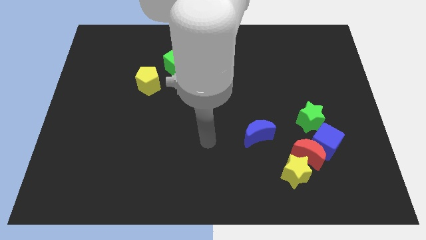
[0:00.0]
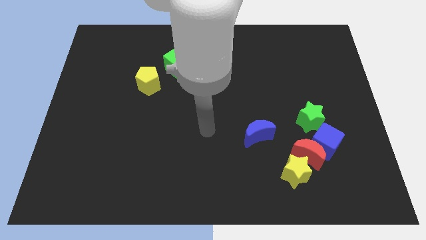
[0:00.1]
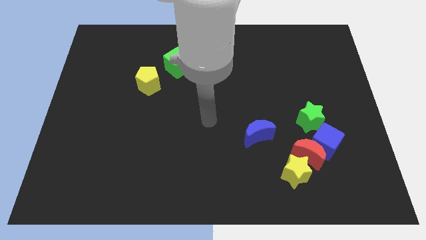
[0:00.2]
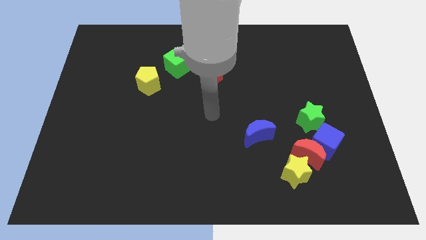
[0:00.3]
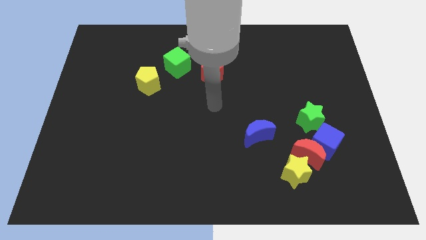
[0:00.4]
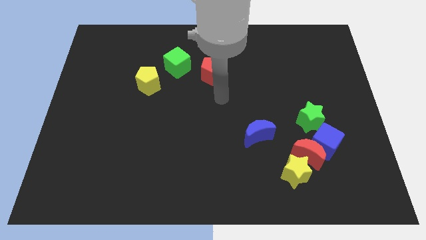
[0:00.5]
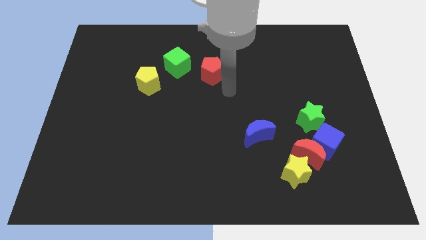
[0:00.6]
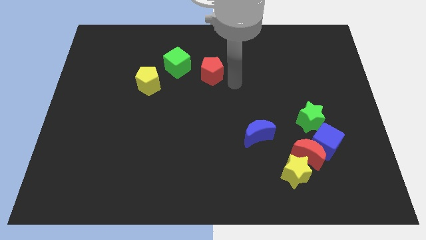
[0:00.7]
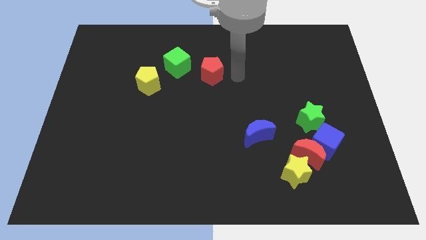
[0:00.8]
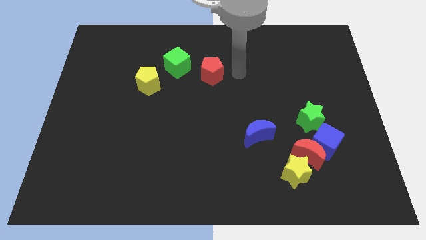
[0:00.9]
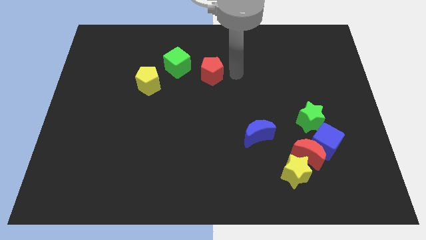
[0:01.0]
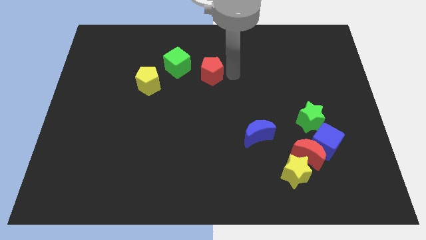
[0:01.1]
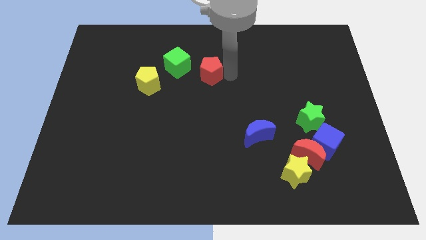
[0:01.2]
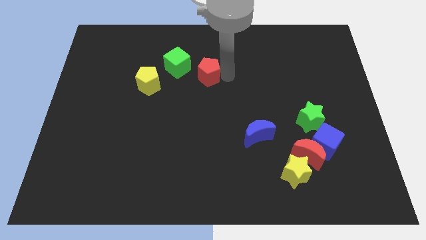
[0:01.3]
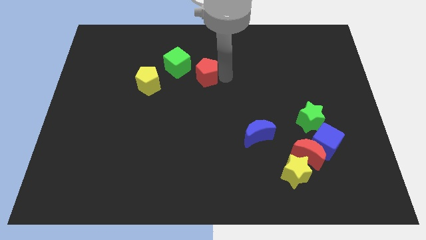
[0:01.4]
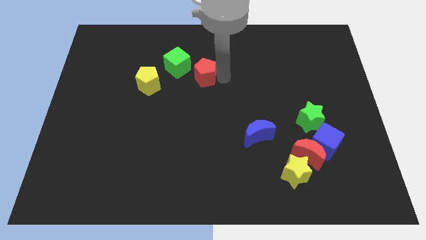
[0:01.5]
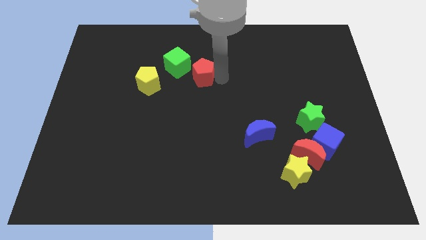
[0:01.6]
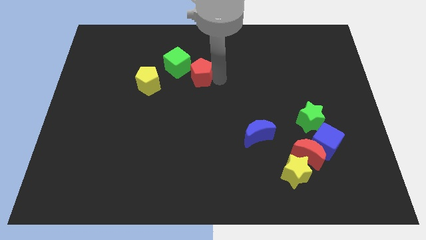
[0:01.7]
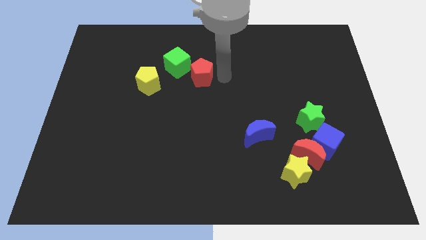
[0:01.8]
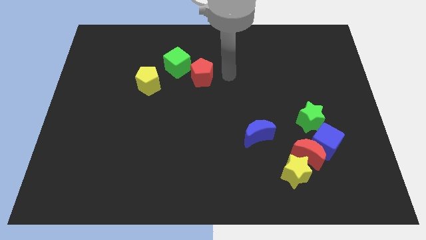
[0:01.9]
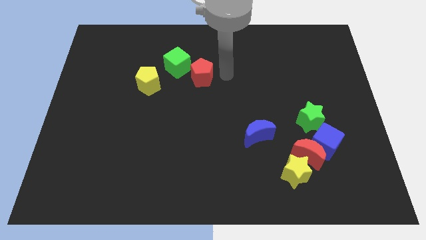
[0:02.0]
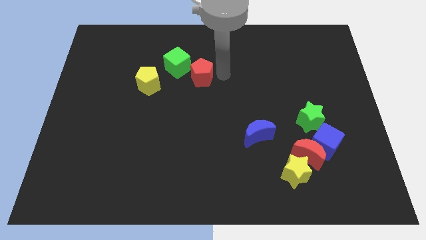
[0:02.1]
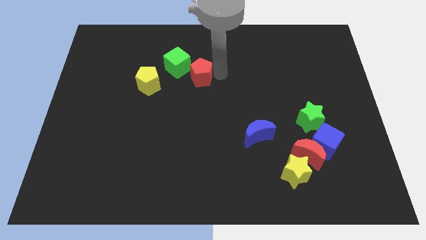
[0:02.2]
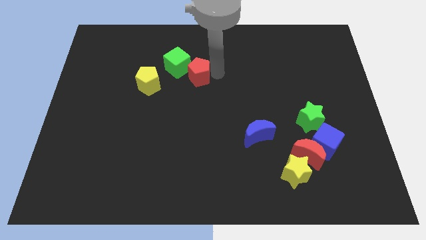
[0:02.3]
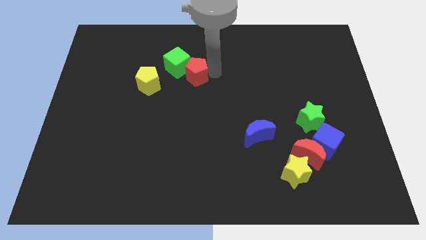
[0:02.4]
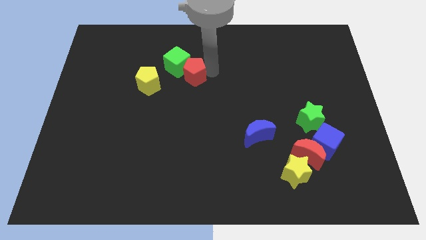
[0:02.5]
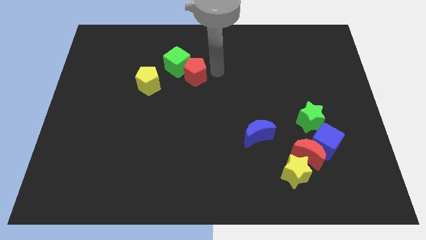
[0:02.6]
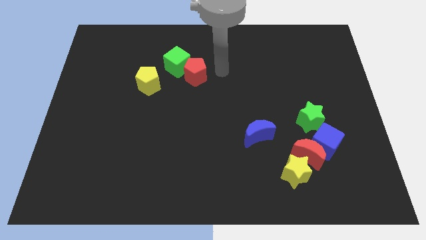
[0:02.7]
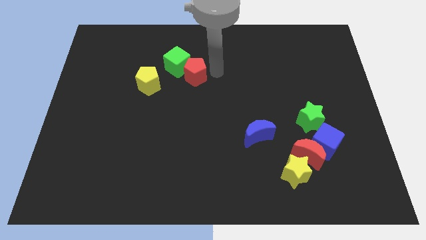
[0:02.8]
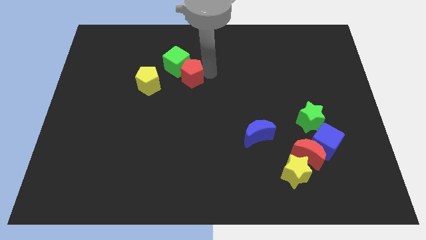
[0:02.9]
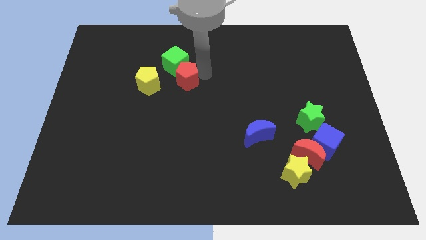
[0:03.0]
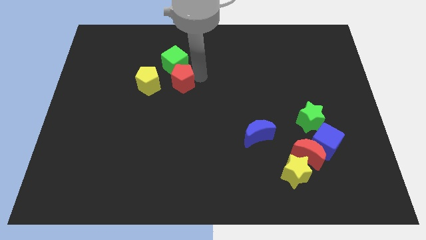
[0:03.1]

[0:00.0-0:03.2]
slightly slide the red pentagon left

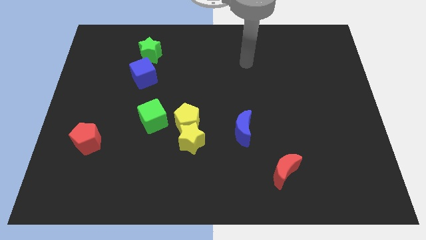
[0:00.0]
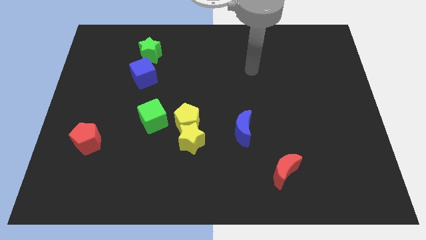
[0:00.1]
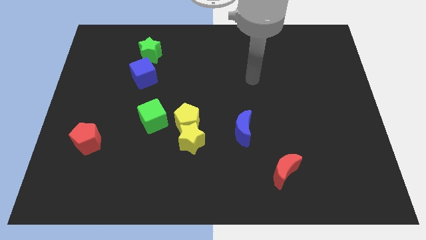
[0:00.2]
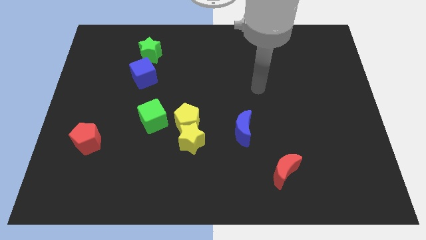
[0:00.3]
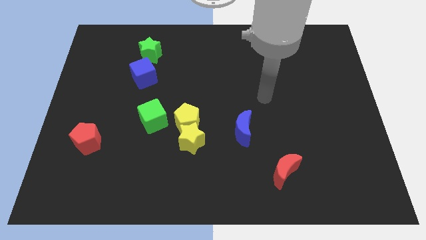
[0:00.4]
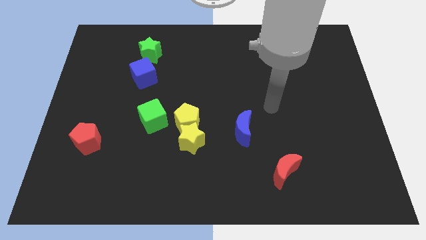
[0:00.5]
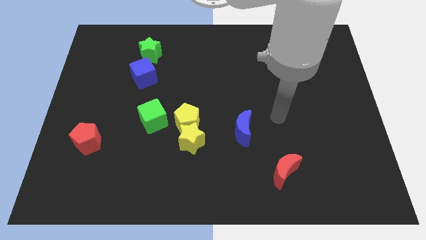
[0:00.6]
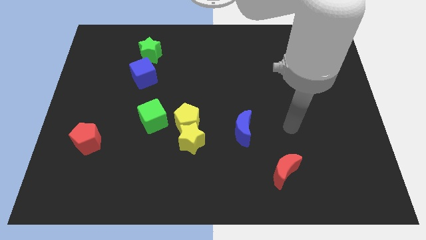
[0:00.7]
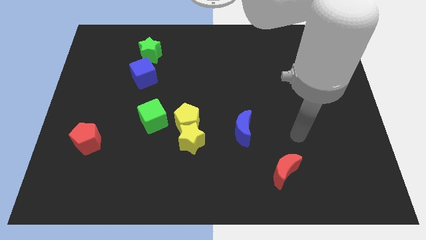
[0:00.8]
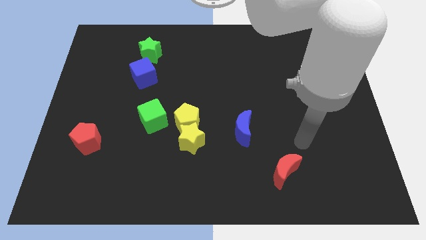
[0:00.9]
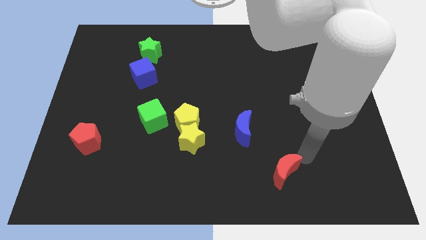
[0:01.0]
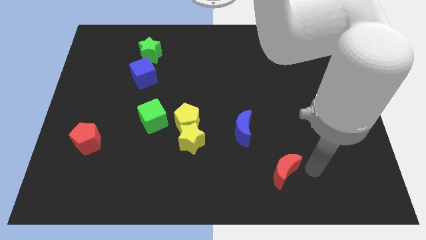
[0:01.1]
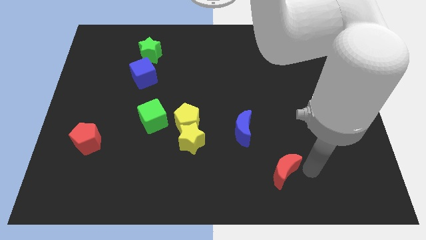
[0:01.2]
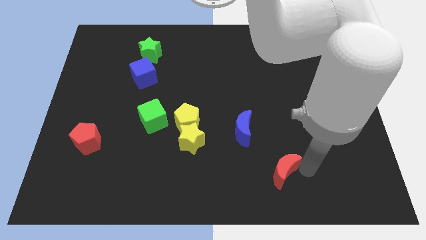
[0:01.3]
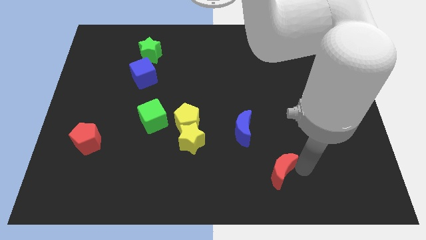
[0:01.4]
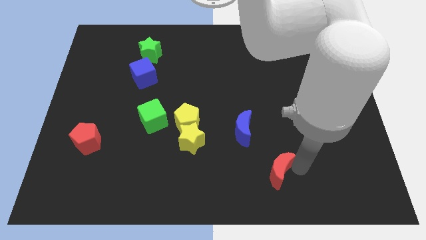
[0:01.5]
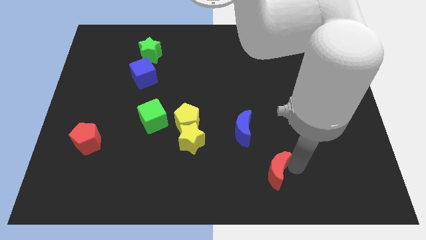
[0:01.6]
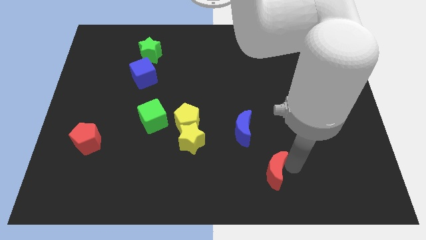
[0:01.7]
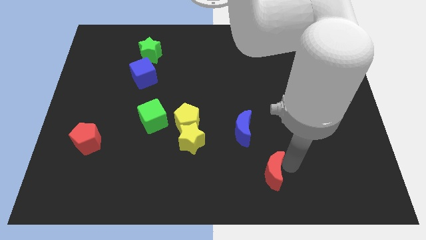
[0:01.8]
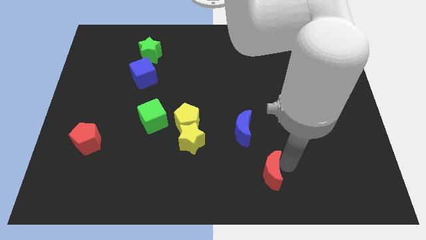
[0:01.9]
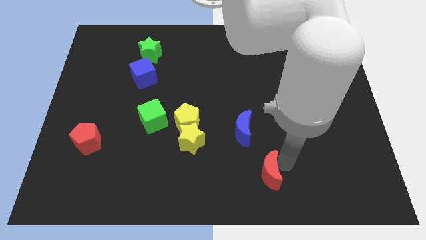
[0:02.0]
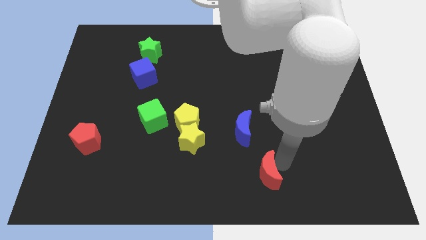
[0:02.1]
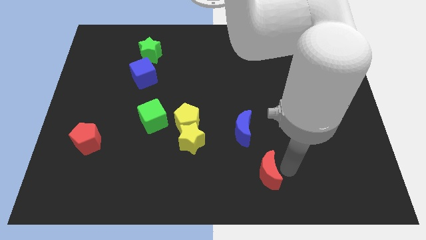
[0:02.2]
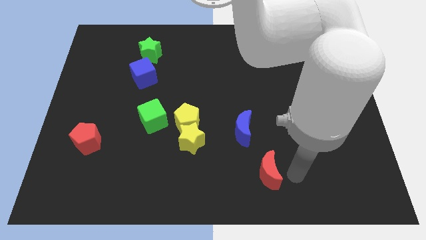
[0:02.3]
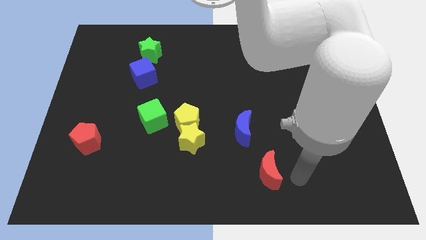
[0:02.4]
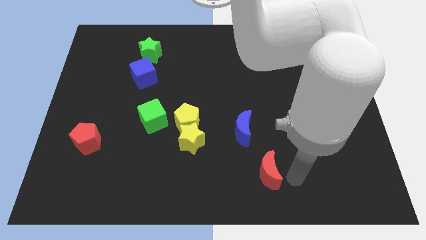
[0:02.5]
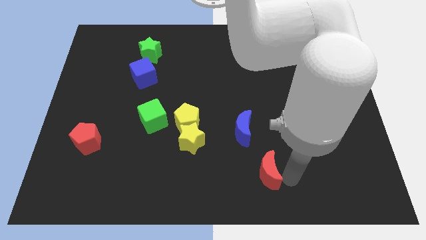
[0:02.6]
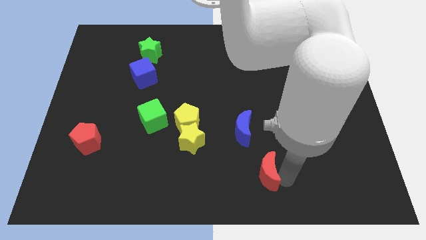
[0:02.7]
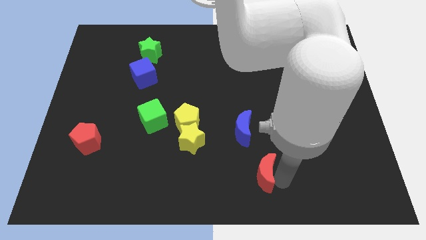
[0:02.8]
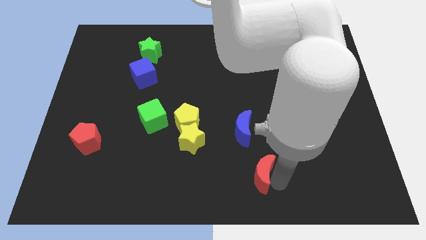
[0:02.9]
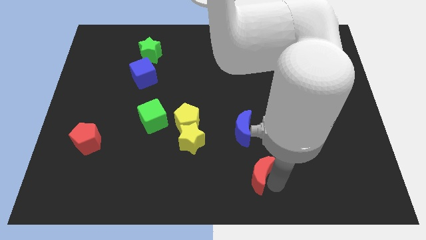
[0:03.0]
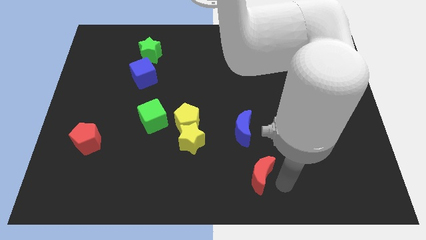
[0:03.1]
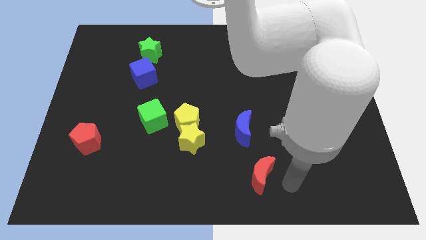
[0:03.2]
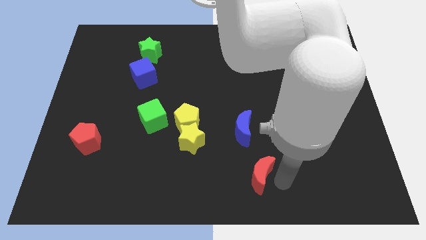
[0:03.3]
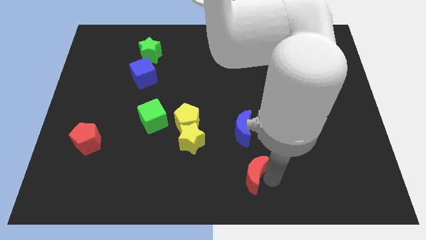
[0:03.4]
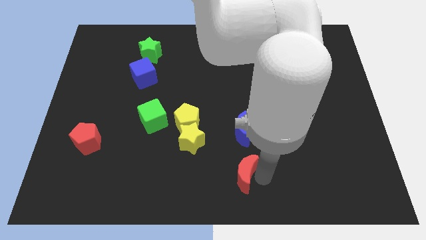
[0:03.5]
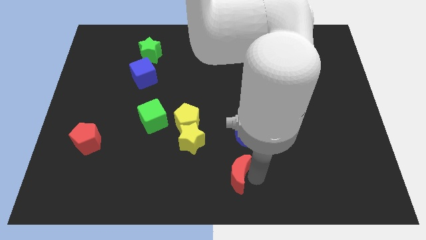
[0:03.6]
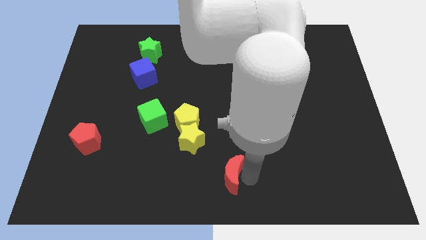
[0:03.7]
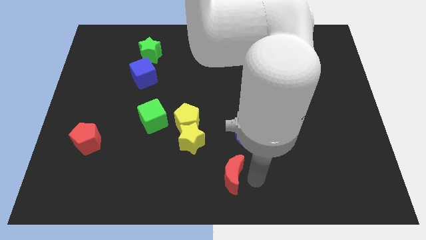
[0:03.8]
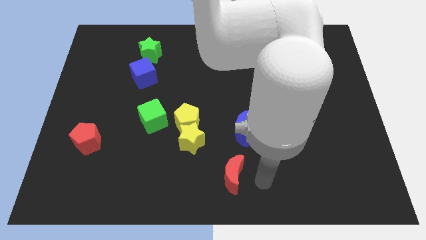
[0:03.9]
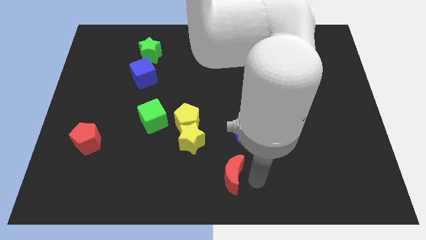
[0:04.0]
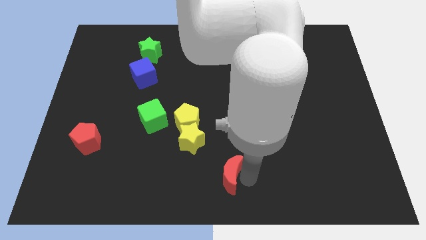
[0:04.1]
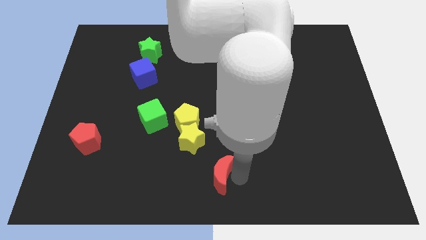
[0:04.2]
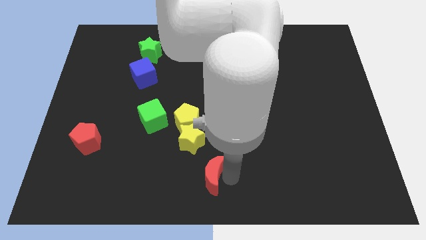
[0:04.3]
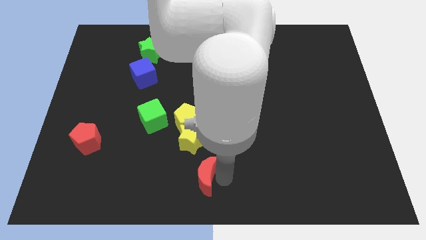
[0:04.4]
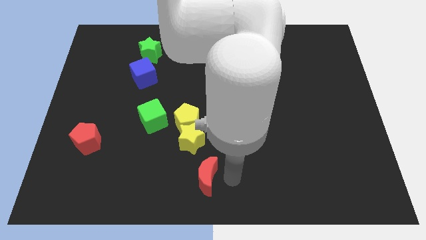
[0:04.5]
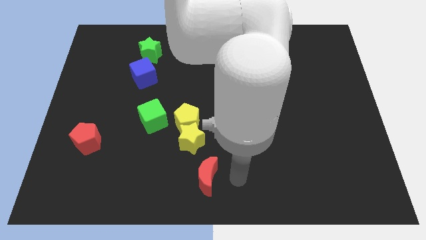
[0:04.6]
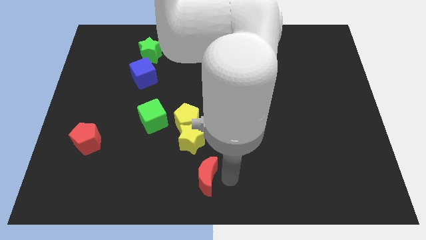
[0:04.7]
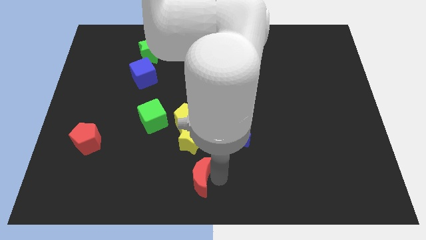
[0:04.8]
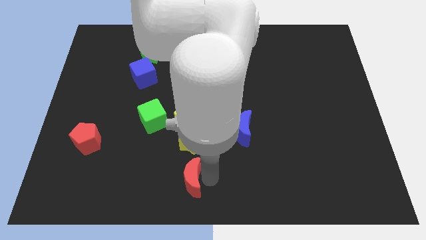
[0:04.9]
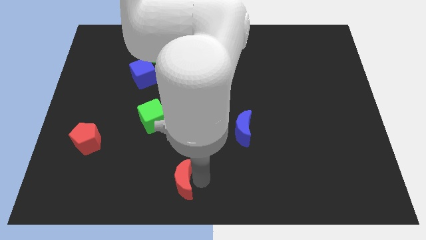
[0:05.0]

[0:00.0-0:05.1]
push the red moon to the left
